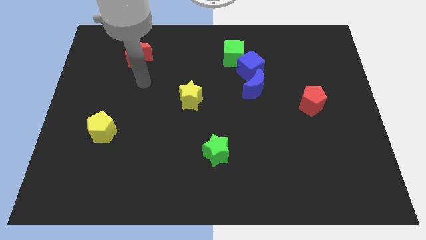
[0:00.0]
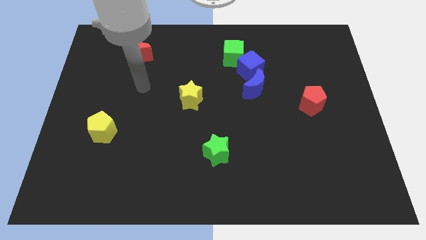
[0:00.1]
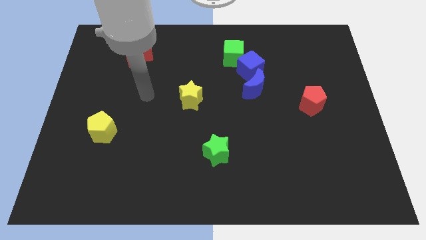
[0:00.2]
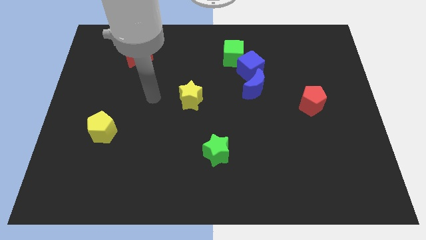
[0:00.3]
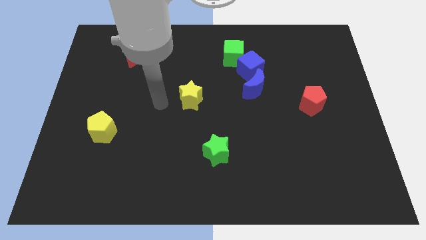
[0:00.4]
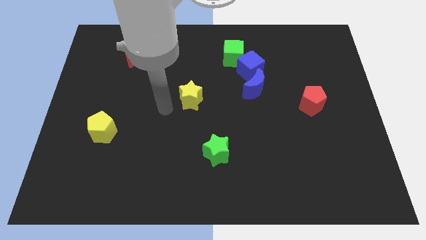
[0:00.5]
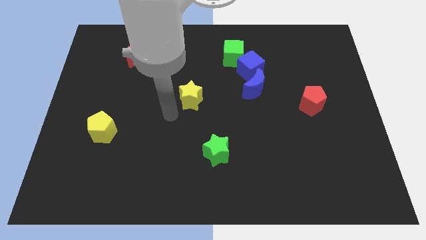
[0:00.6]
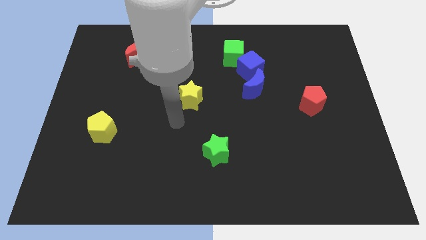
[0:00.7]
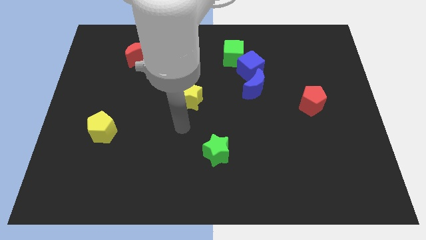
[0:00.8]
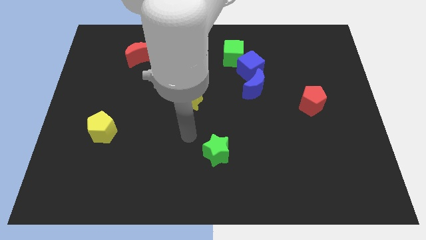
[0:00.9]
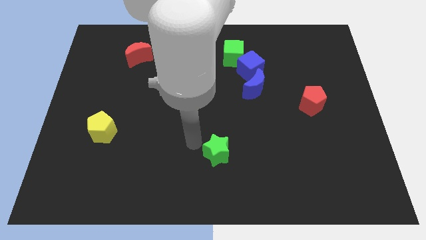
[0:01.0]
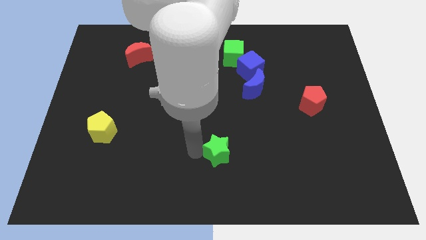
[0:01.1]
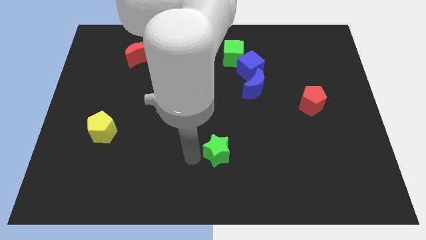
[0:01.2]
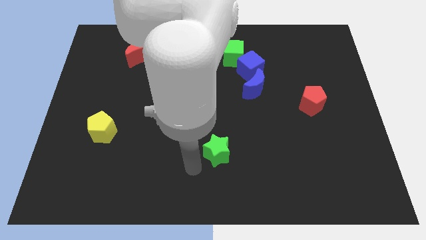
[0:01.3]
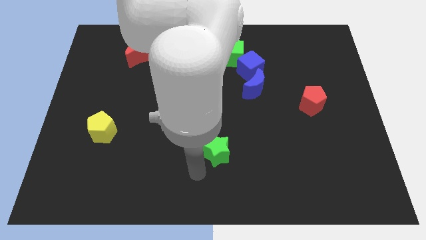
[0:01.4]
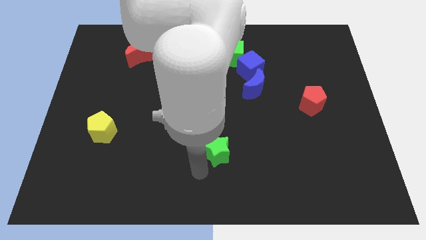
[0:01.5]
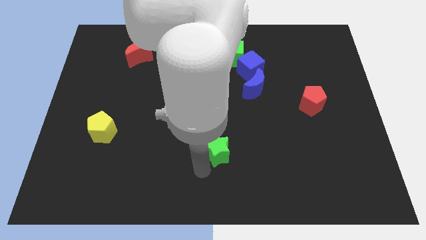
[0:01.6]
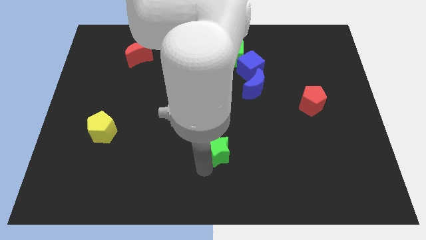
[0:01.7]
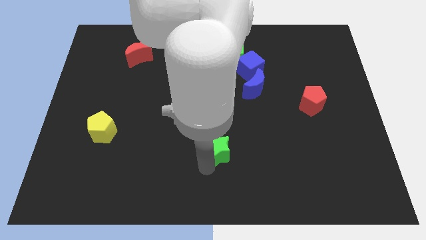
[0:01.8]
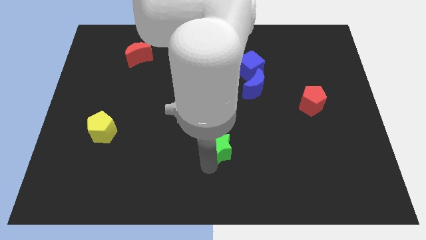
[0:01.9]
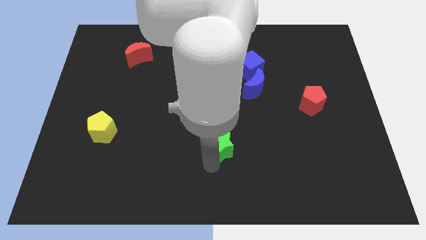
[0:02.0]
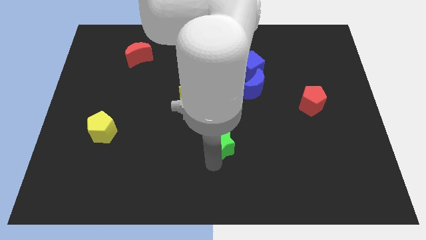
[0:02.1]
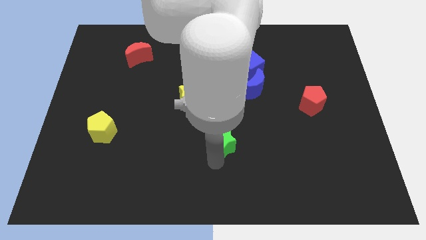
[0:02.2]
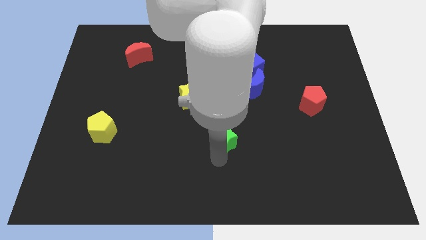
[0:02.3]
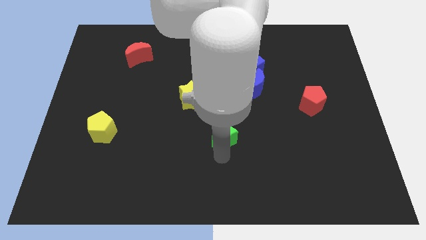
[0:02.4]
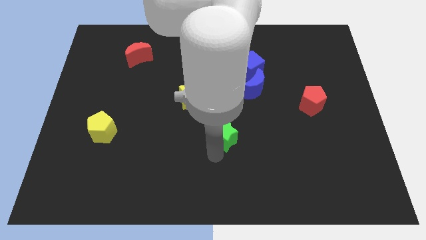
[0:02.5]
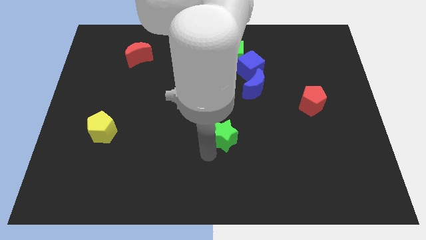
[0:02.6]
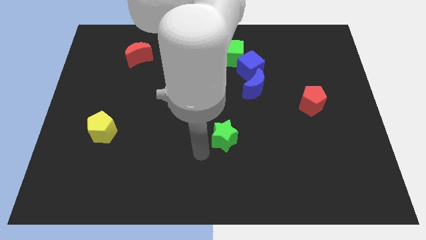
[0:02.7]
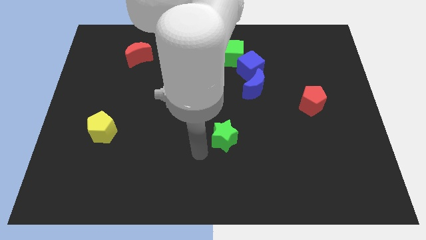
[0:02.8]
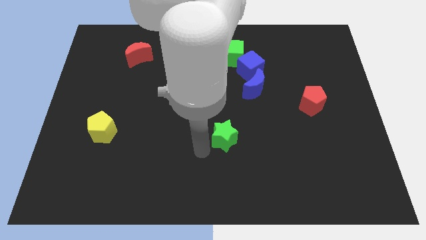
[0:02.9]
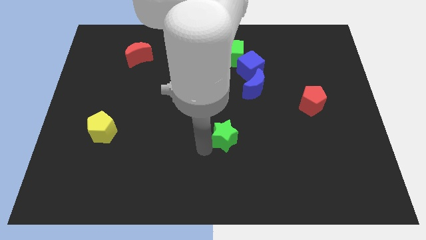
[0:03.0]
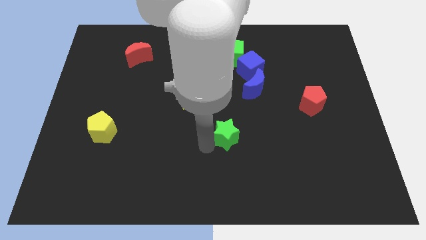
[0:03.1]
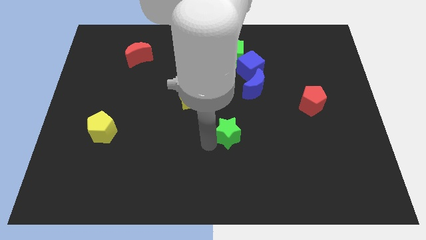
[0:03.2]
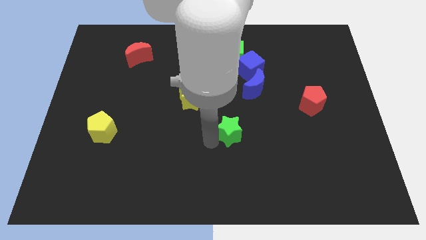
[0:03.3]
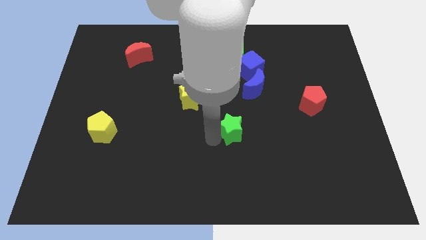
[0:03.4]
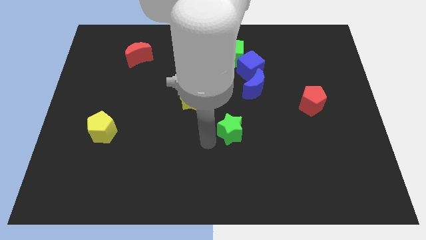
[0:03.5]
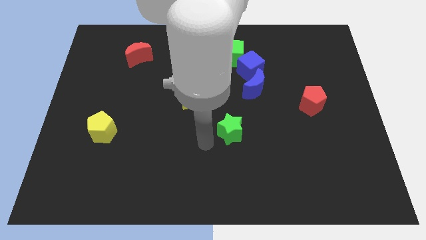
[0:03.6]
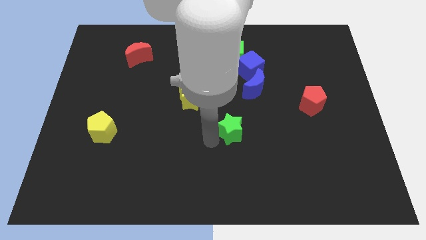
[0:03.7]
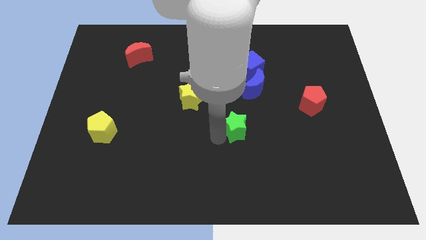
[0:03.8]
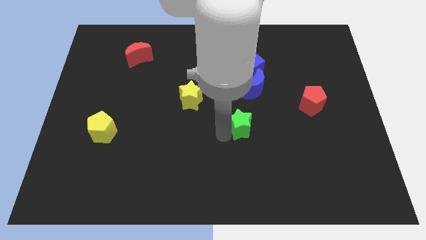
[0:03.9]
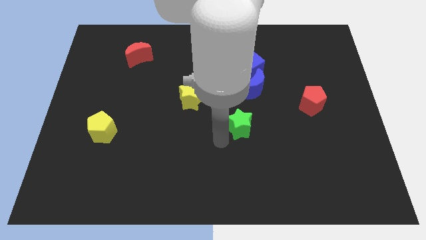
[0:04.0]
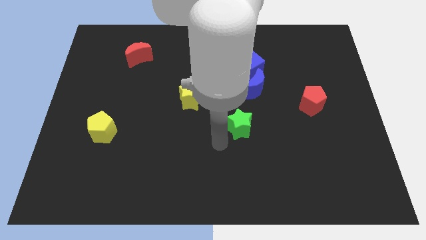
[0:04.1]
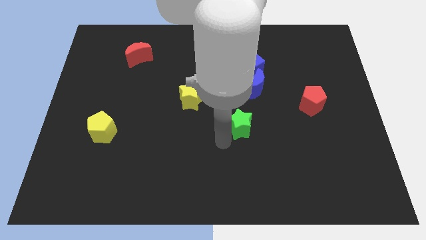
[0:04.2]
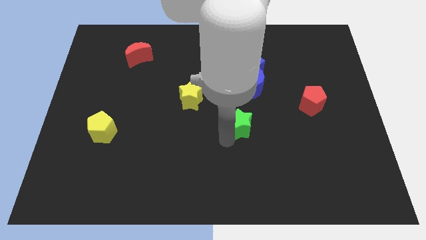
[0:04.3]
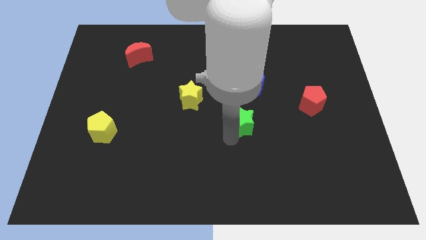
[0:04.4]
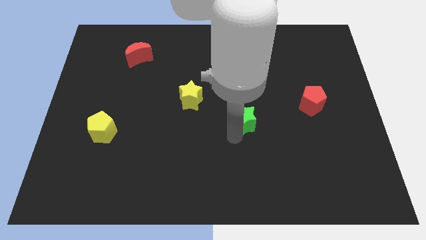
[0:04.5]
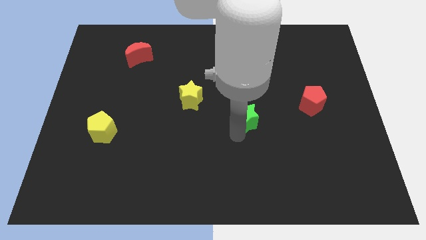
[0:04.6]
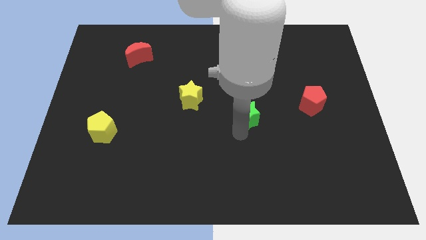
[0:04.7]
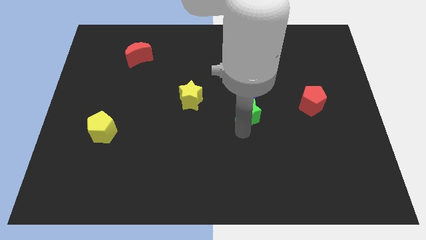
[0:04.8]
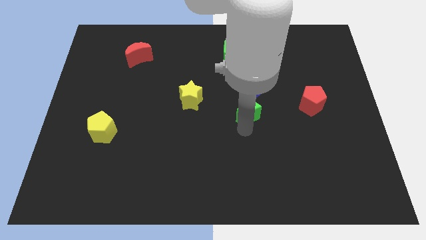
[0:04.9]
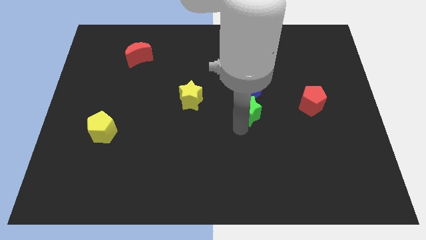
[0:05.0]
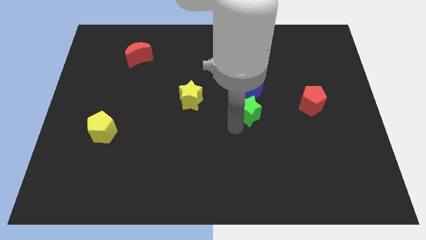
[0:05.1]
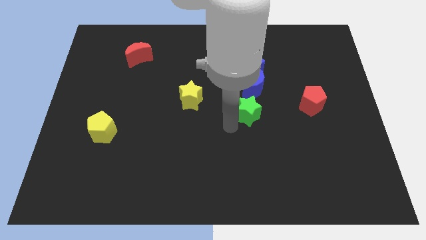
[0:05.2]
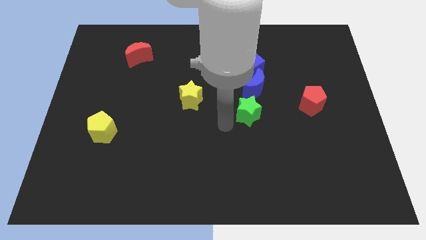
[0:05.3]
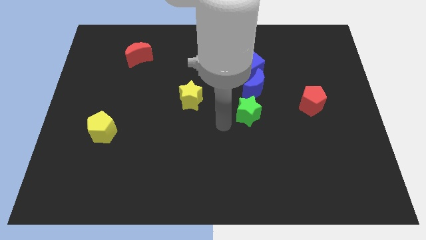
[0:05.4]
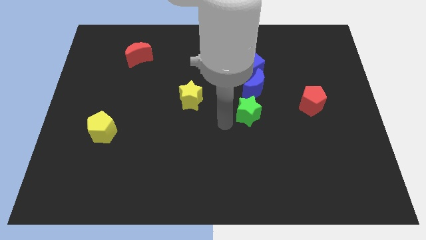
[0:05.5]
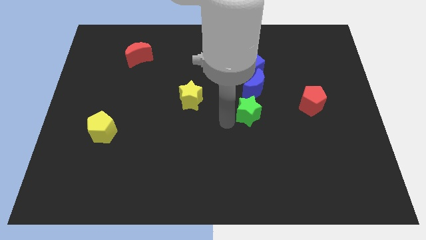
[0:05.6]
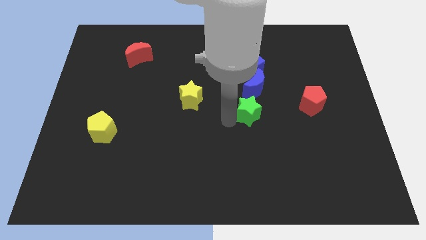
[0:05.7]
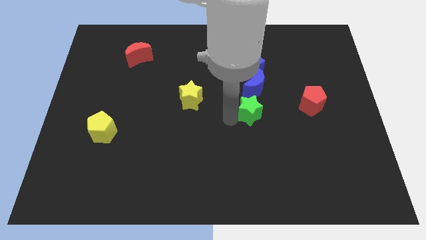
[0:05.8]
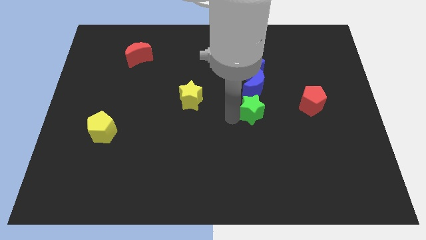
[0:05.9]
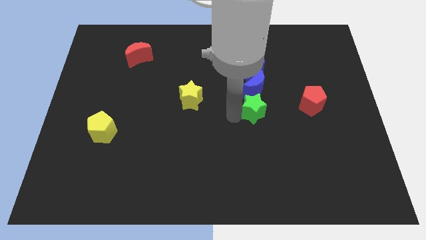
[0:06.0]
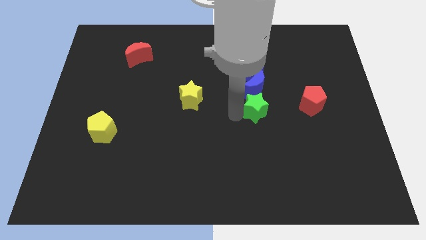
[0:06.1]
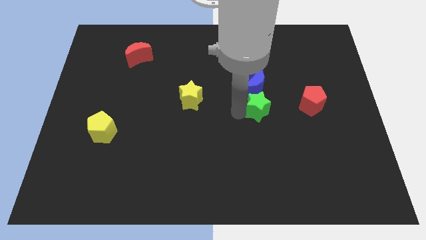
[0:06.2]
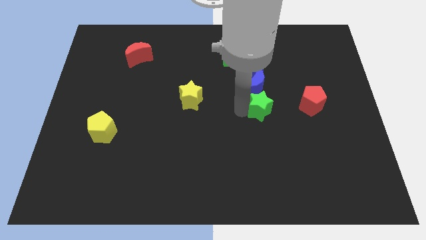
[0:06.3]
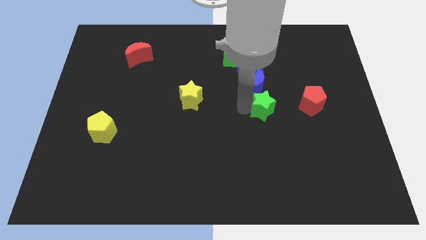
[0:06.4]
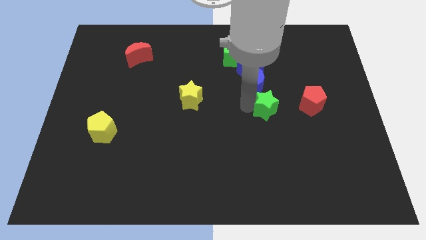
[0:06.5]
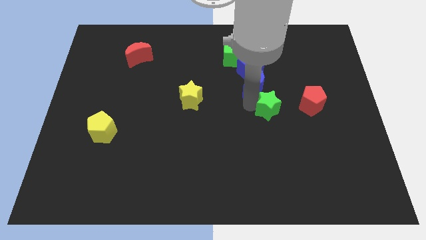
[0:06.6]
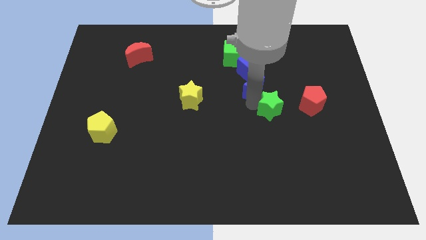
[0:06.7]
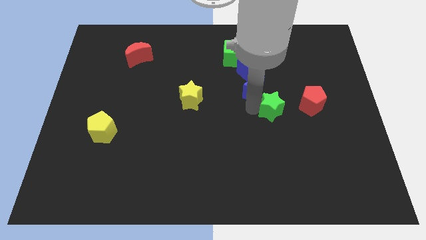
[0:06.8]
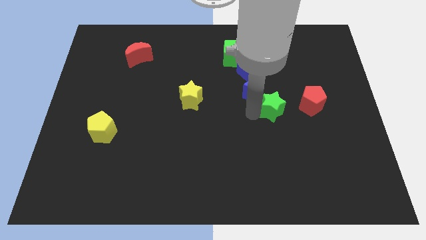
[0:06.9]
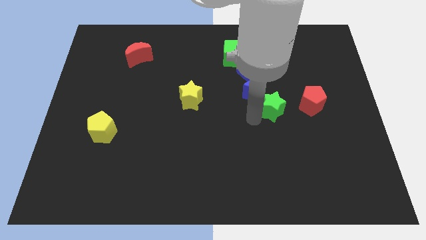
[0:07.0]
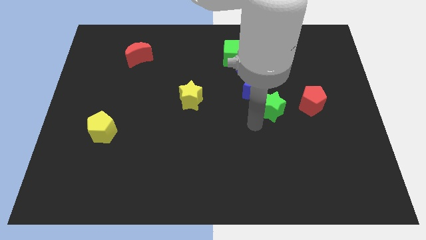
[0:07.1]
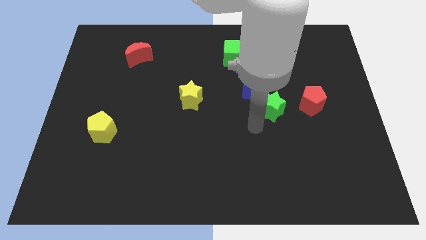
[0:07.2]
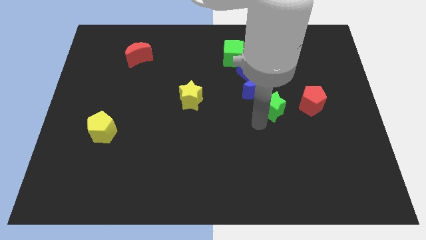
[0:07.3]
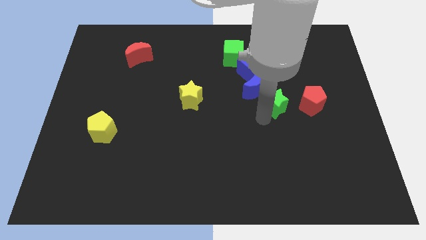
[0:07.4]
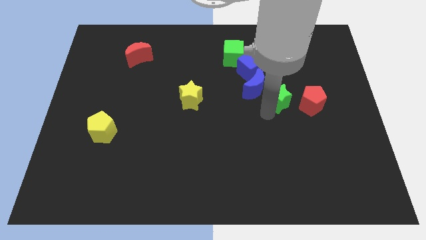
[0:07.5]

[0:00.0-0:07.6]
slide the green star diagonally up and to the right

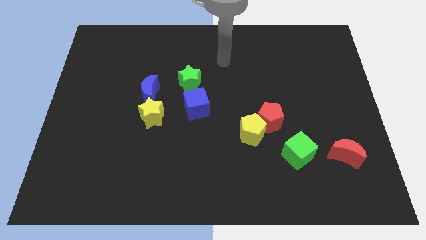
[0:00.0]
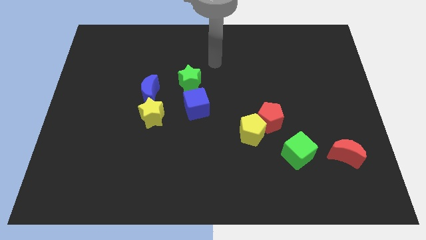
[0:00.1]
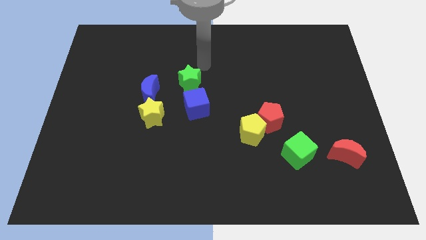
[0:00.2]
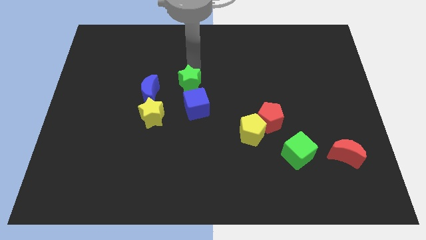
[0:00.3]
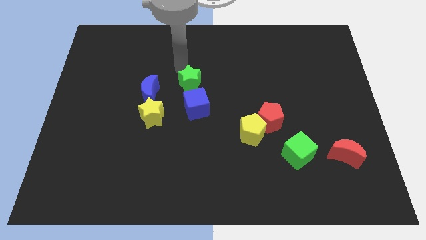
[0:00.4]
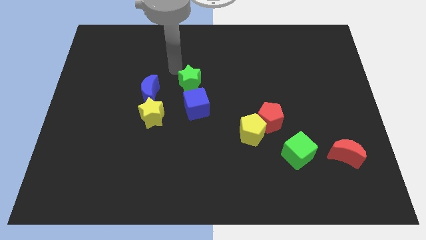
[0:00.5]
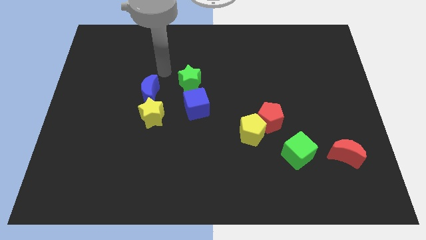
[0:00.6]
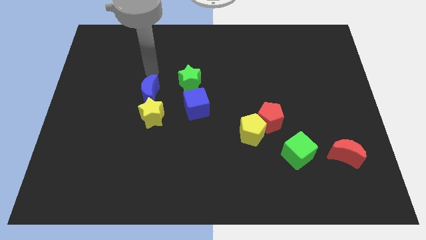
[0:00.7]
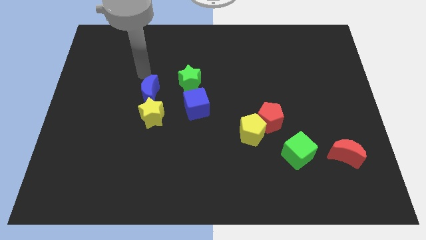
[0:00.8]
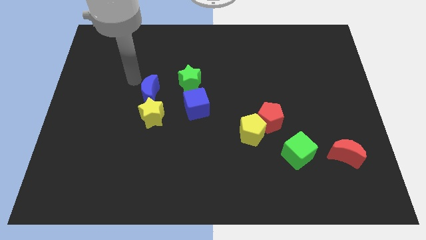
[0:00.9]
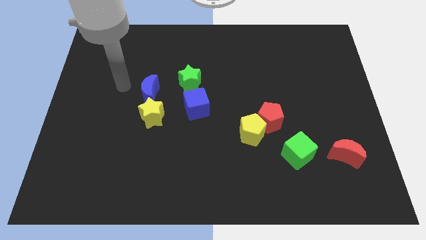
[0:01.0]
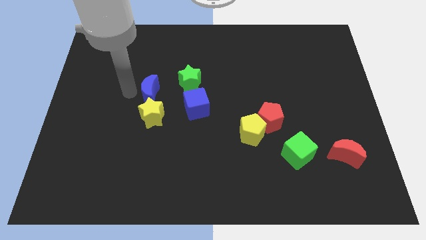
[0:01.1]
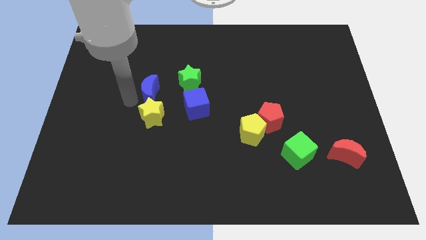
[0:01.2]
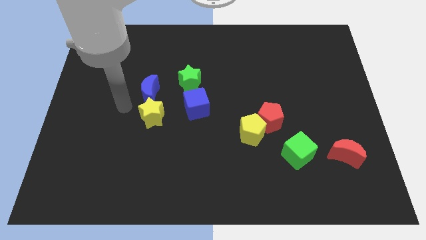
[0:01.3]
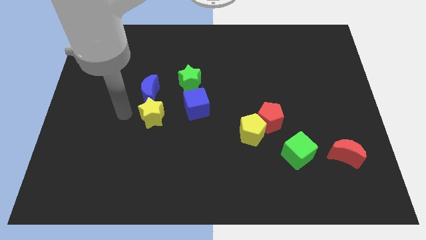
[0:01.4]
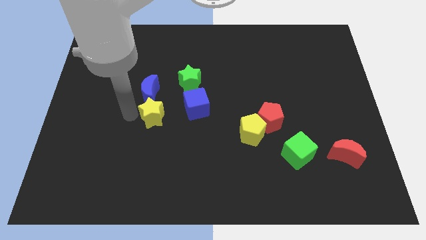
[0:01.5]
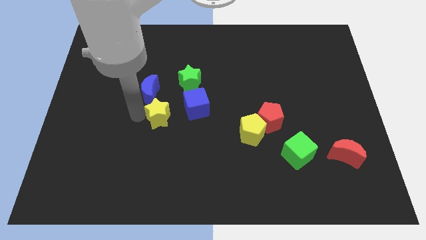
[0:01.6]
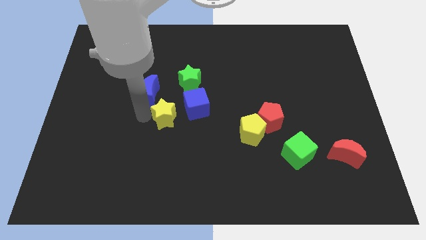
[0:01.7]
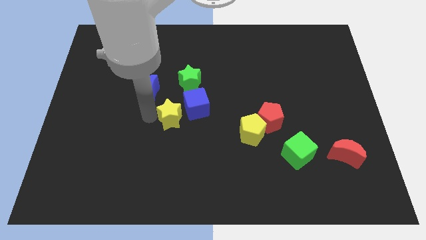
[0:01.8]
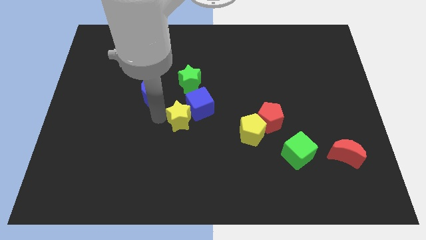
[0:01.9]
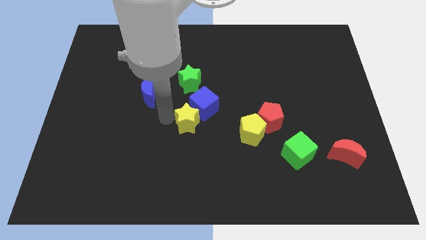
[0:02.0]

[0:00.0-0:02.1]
slide the yellow star somewhat right
